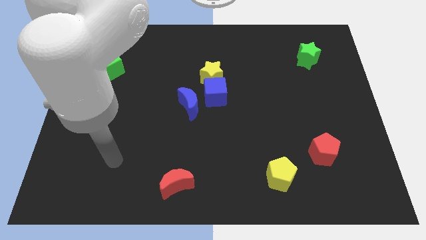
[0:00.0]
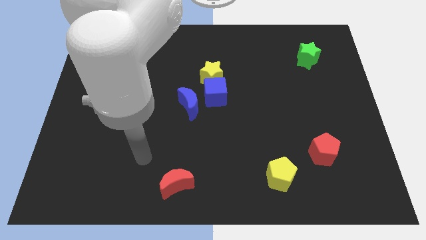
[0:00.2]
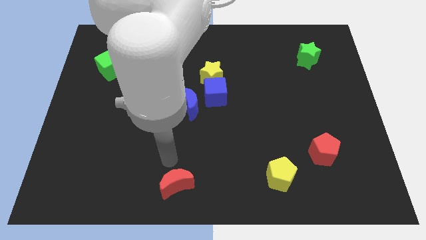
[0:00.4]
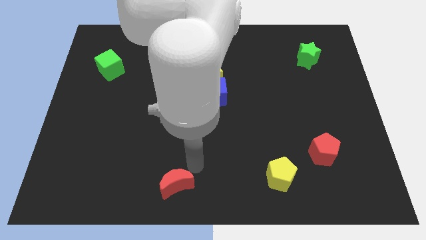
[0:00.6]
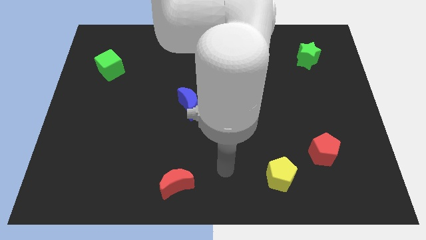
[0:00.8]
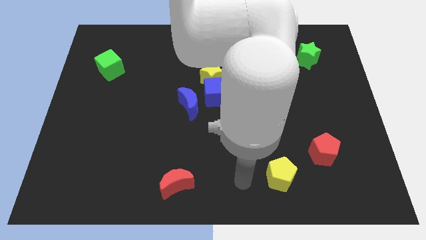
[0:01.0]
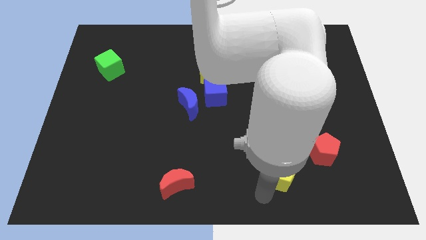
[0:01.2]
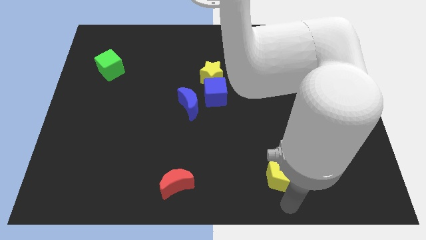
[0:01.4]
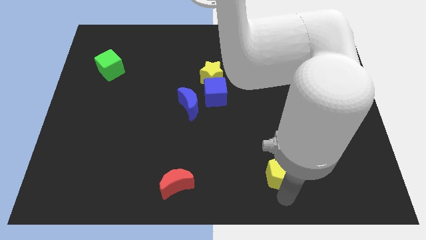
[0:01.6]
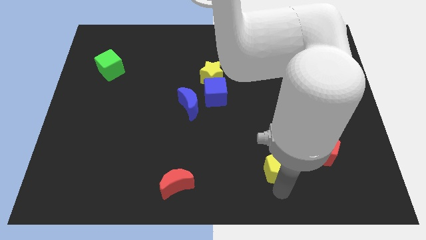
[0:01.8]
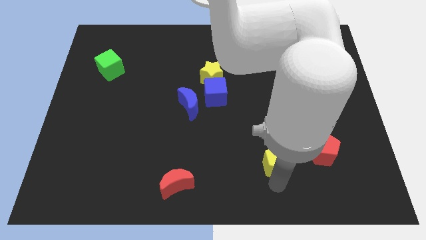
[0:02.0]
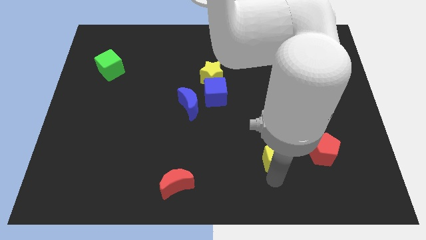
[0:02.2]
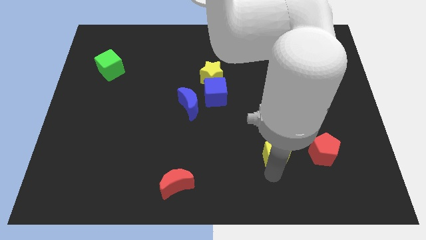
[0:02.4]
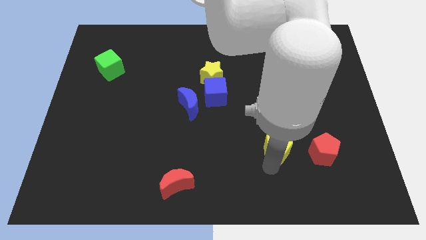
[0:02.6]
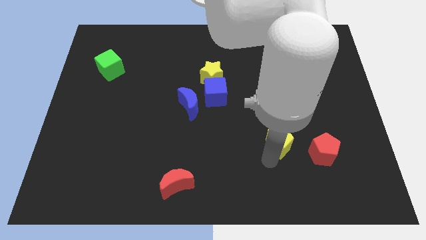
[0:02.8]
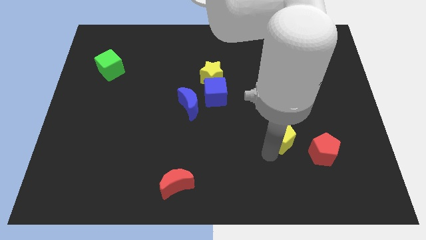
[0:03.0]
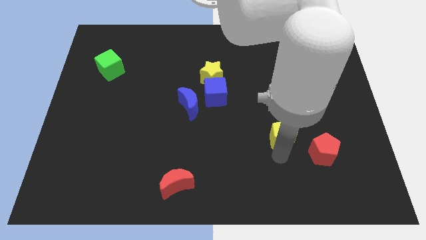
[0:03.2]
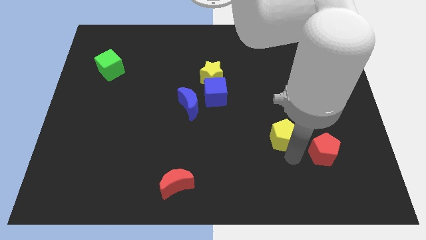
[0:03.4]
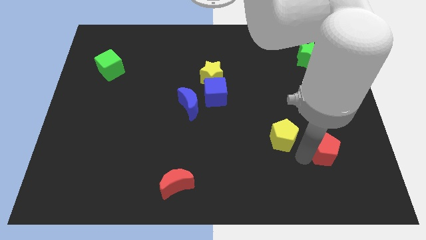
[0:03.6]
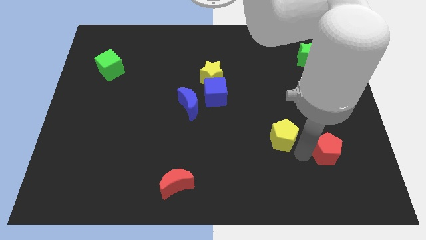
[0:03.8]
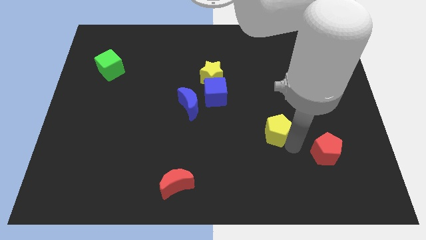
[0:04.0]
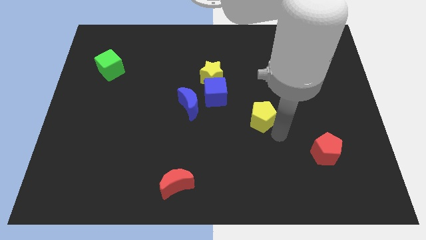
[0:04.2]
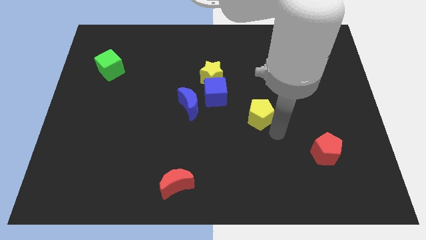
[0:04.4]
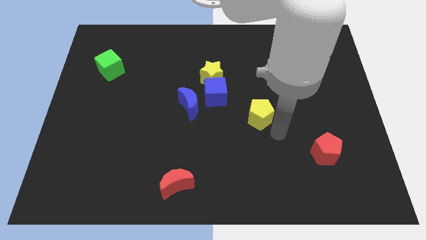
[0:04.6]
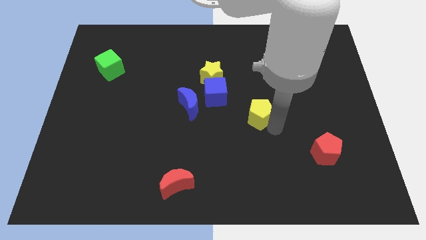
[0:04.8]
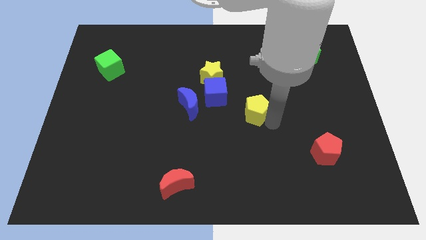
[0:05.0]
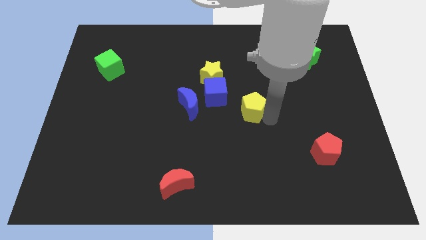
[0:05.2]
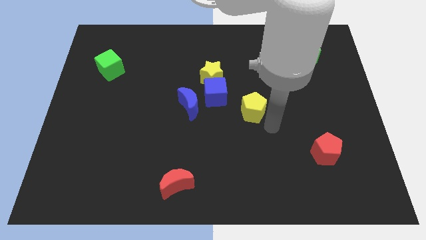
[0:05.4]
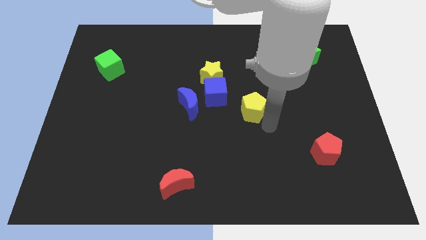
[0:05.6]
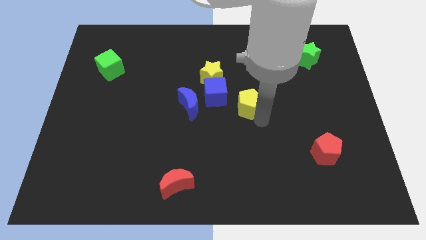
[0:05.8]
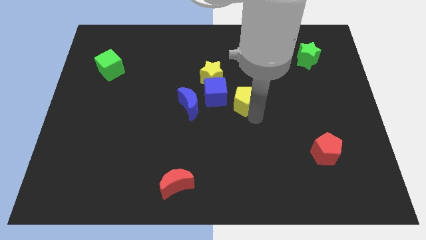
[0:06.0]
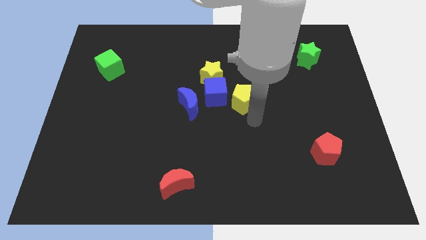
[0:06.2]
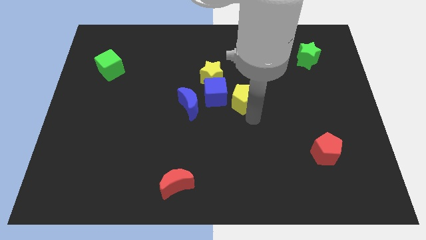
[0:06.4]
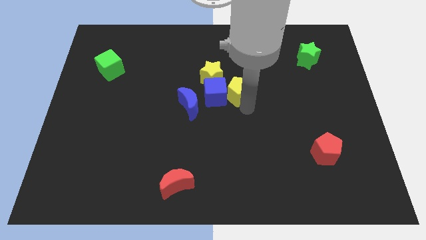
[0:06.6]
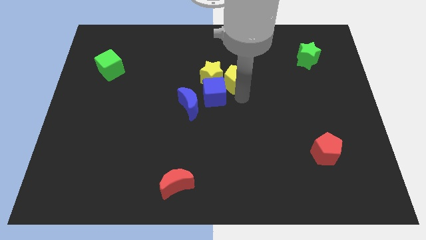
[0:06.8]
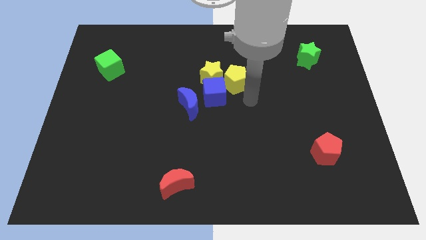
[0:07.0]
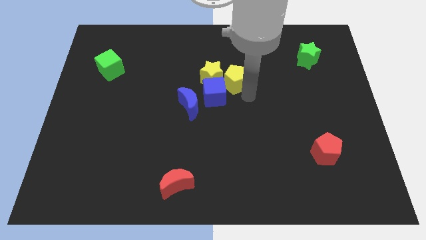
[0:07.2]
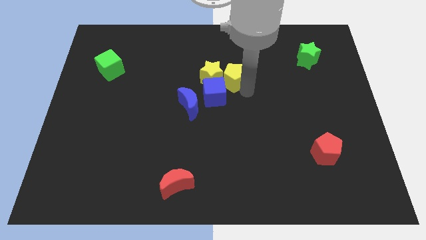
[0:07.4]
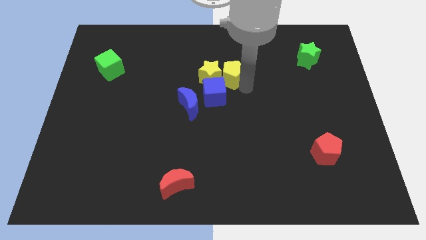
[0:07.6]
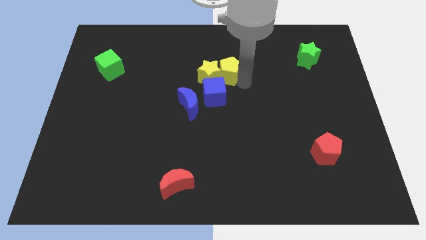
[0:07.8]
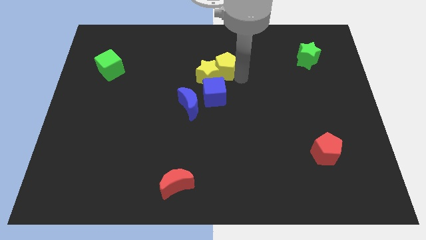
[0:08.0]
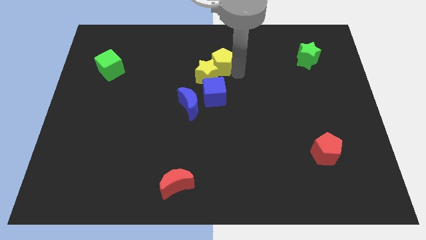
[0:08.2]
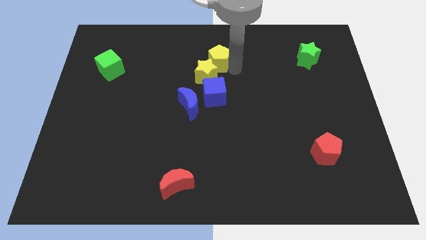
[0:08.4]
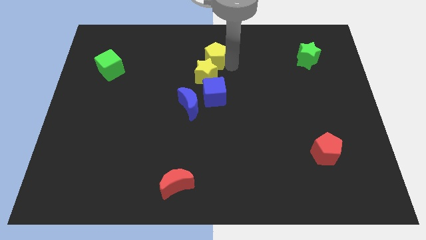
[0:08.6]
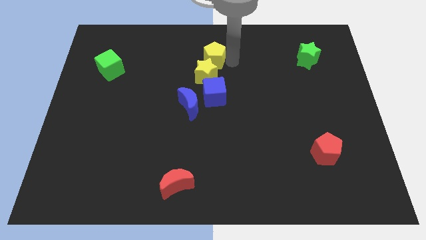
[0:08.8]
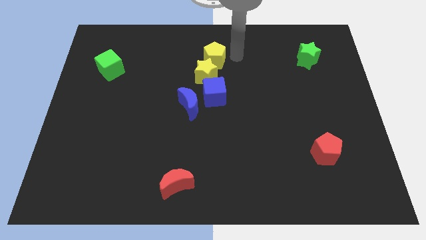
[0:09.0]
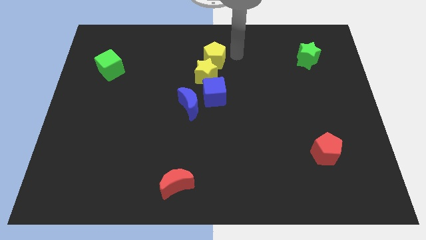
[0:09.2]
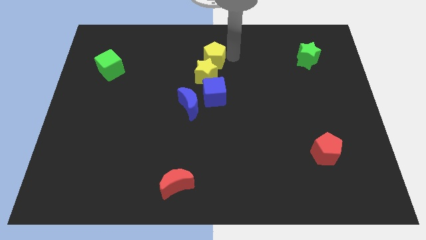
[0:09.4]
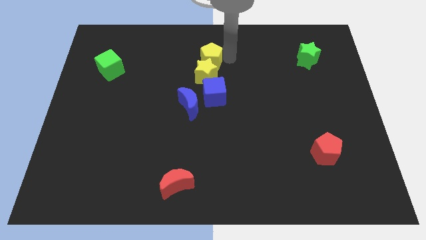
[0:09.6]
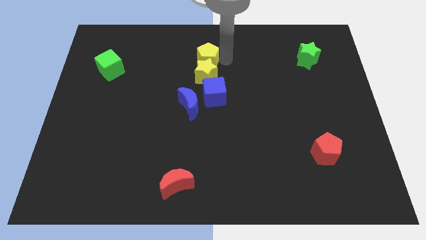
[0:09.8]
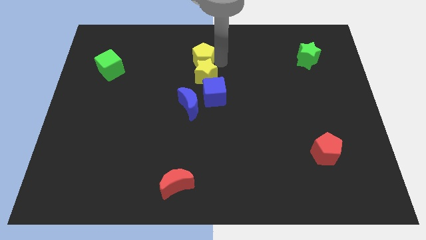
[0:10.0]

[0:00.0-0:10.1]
slide the yellow pentagon to the top side of the blue moon

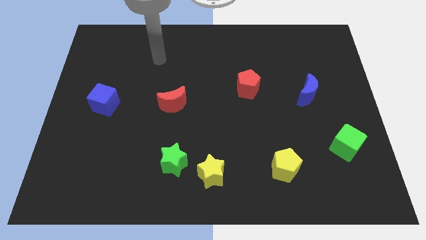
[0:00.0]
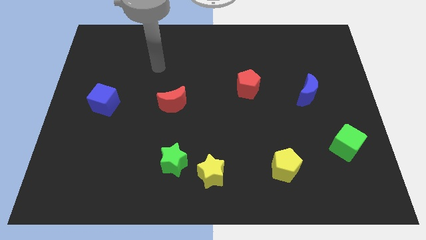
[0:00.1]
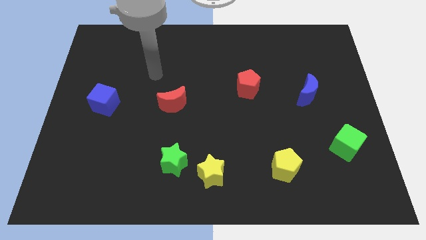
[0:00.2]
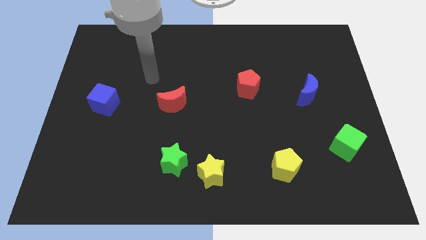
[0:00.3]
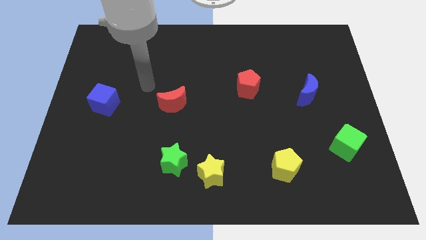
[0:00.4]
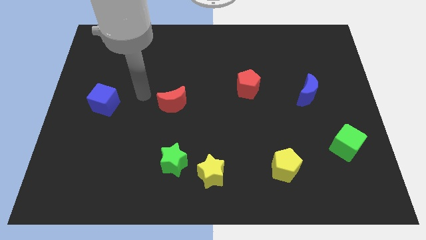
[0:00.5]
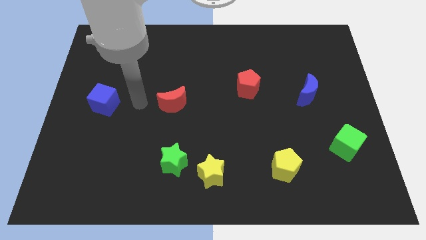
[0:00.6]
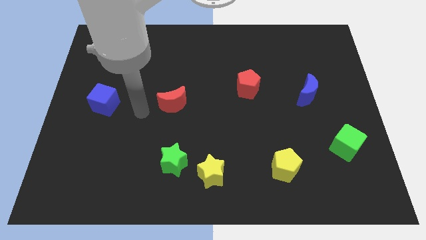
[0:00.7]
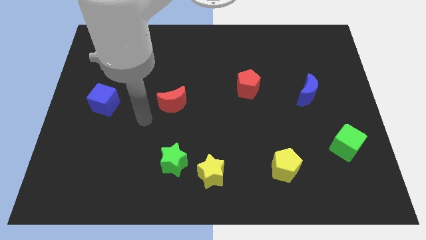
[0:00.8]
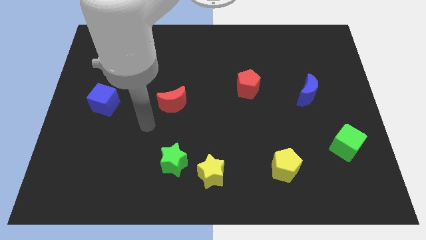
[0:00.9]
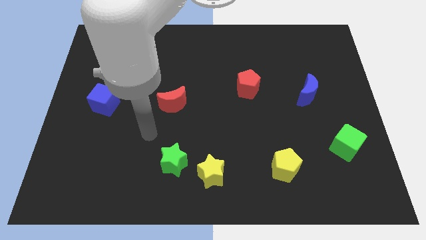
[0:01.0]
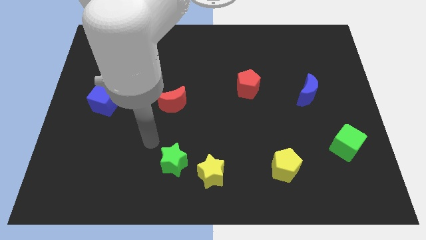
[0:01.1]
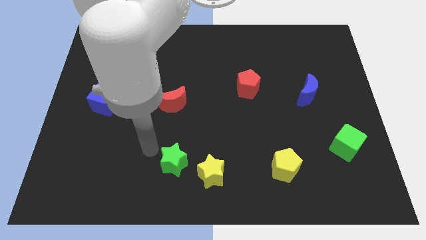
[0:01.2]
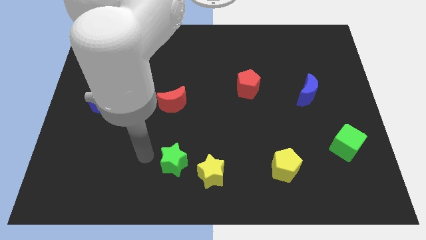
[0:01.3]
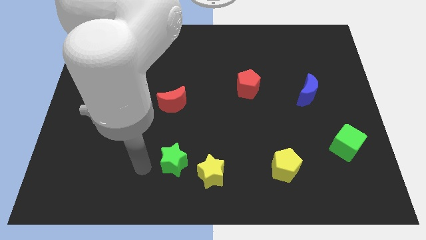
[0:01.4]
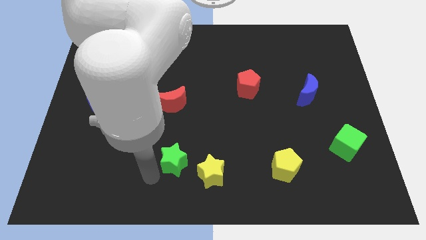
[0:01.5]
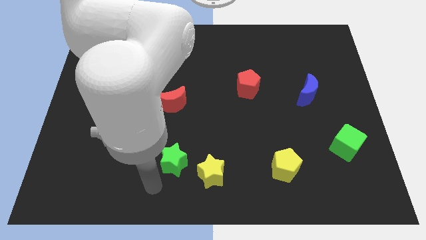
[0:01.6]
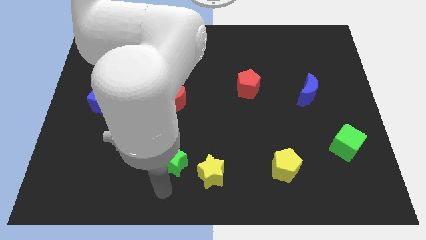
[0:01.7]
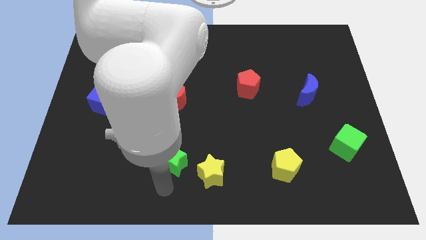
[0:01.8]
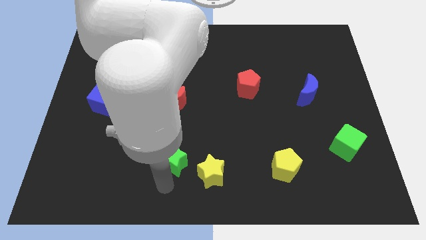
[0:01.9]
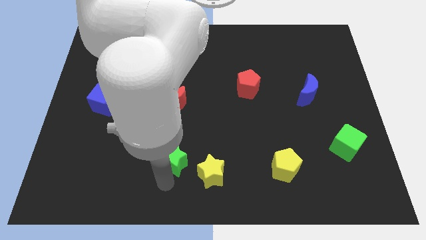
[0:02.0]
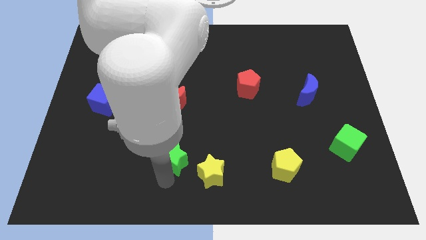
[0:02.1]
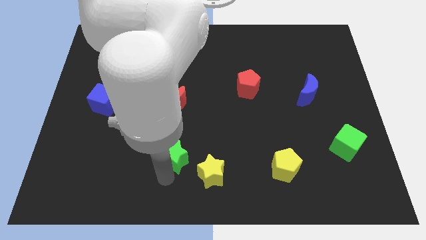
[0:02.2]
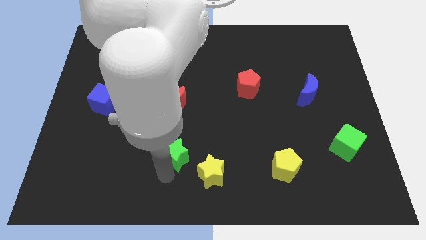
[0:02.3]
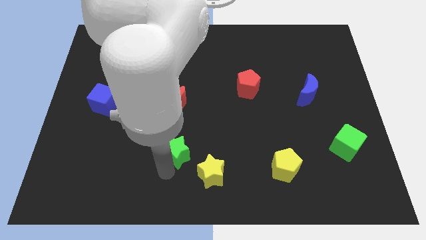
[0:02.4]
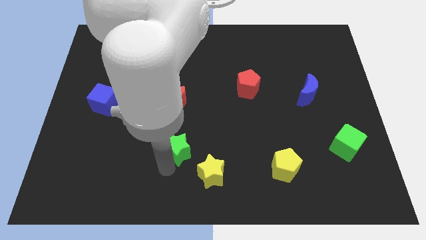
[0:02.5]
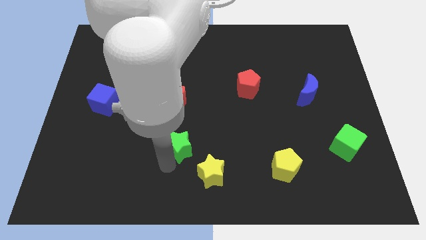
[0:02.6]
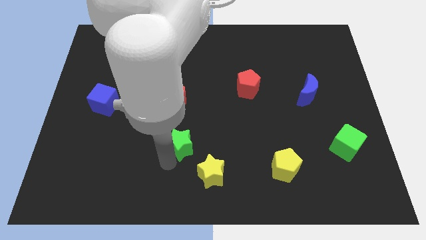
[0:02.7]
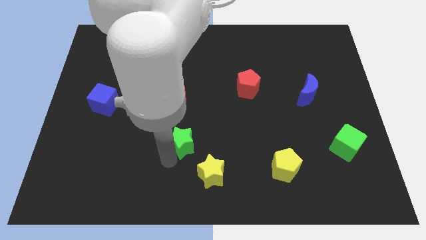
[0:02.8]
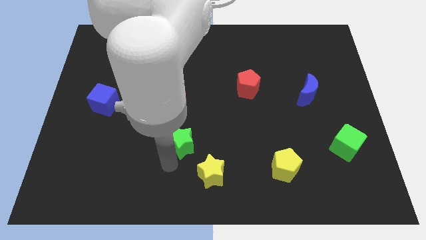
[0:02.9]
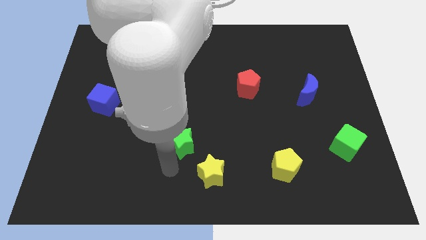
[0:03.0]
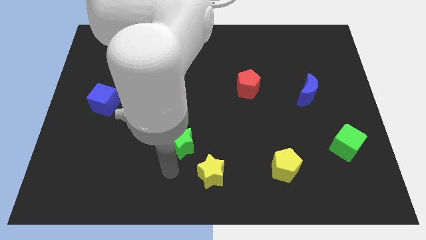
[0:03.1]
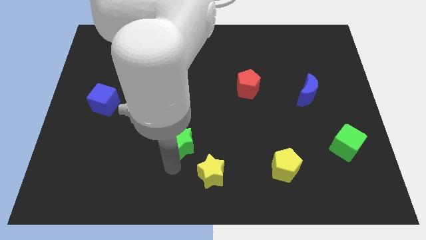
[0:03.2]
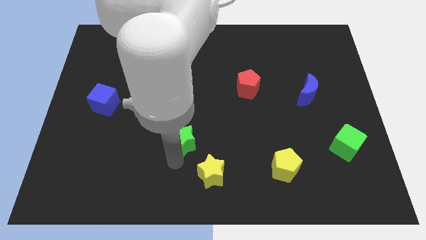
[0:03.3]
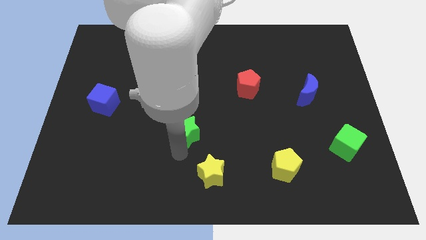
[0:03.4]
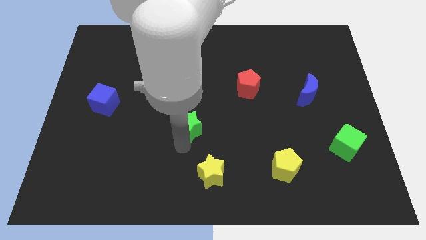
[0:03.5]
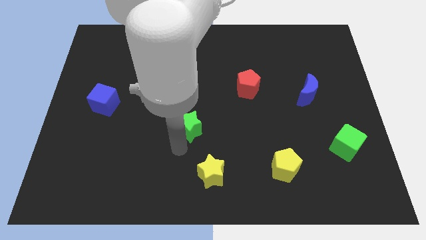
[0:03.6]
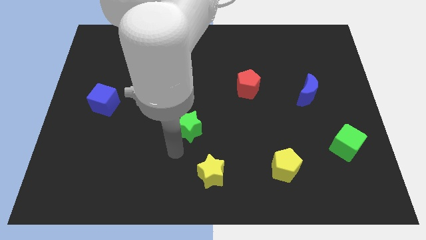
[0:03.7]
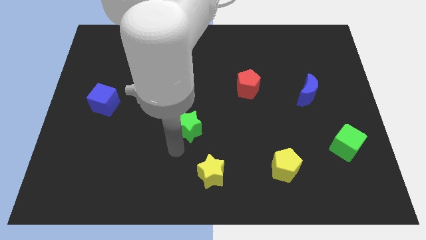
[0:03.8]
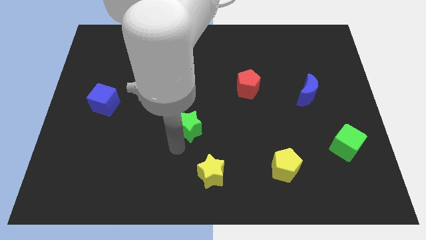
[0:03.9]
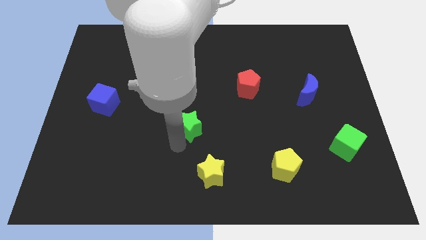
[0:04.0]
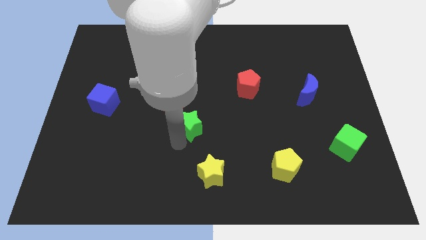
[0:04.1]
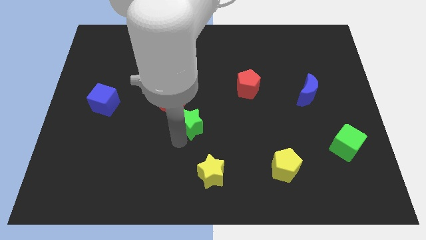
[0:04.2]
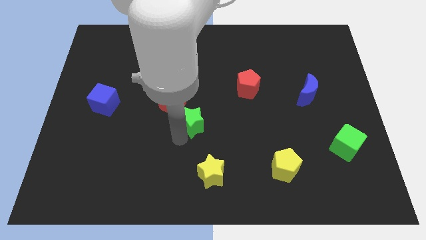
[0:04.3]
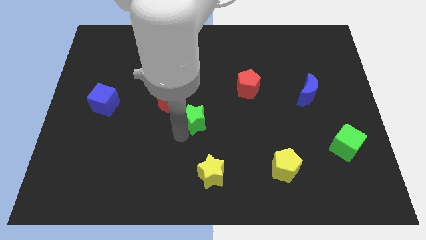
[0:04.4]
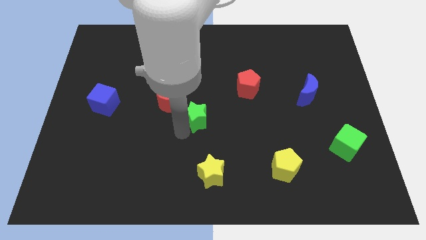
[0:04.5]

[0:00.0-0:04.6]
push the green star right of the red moon
